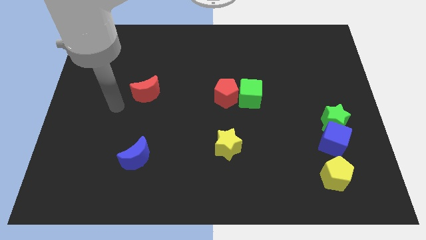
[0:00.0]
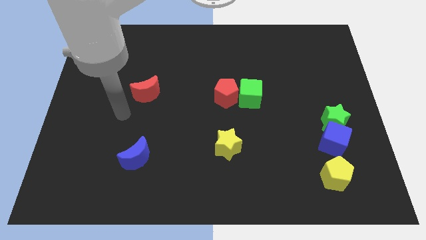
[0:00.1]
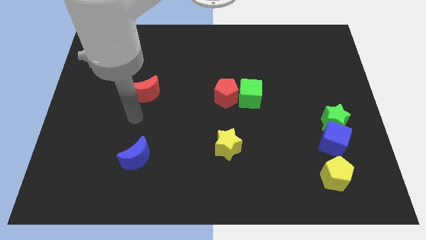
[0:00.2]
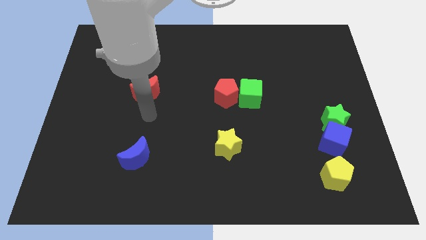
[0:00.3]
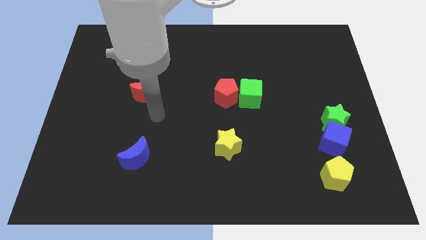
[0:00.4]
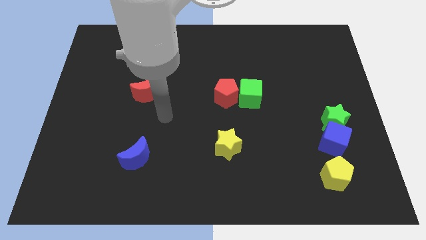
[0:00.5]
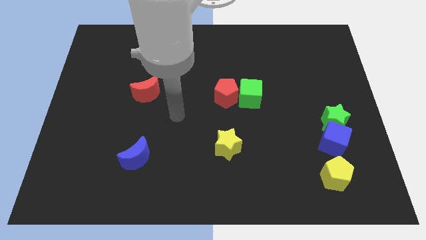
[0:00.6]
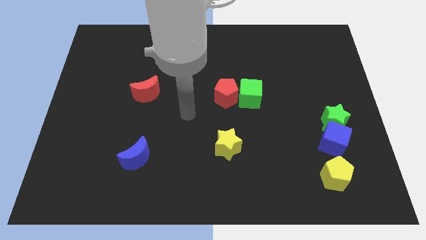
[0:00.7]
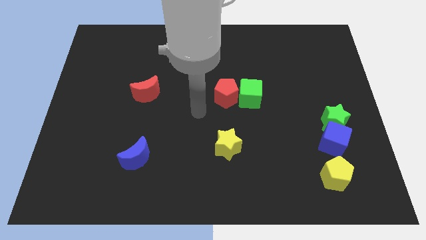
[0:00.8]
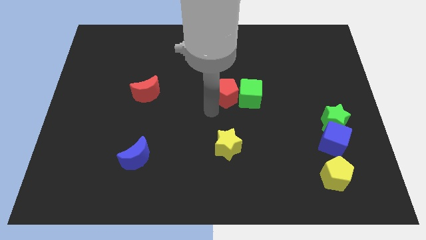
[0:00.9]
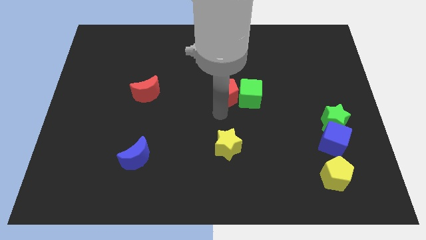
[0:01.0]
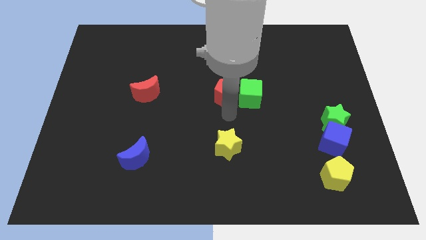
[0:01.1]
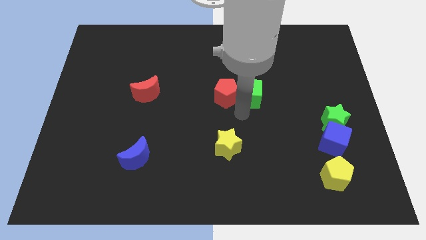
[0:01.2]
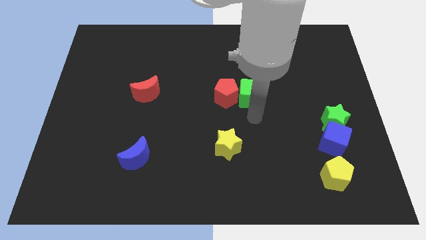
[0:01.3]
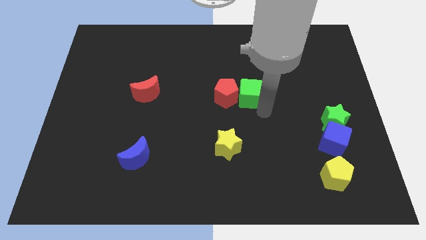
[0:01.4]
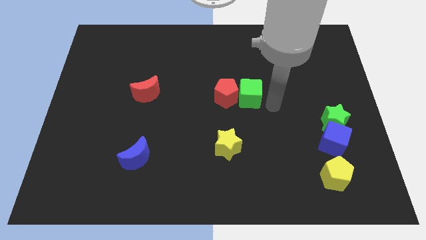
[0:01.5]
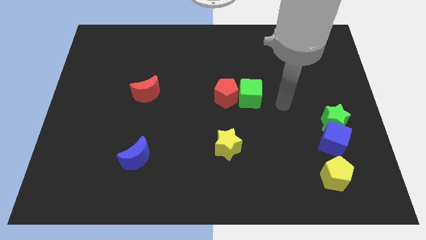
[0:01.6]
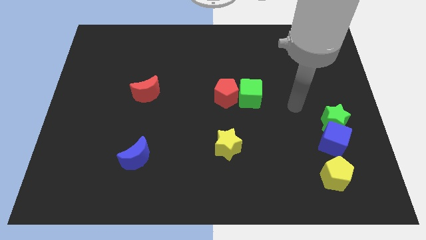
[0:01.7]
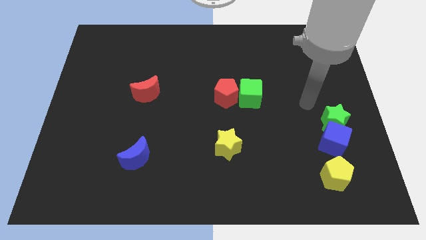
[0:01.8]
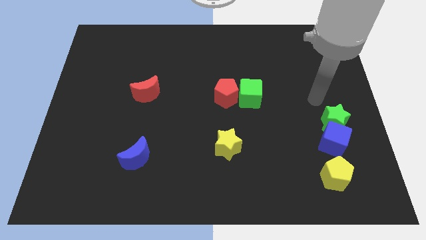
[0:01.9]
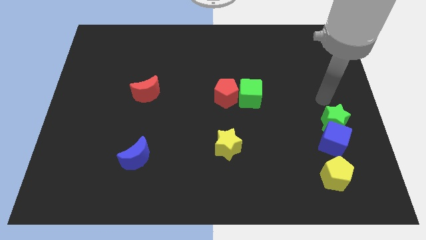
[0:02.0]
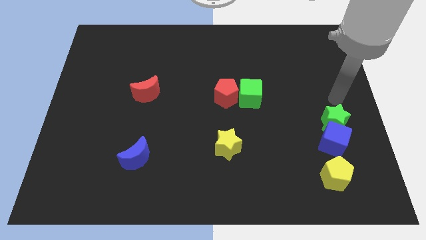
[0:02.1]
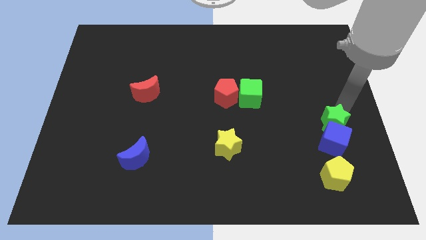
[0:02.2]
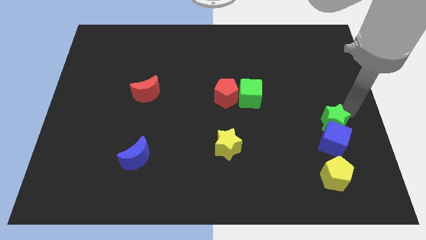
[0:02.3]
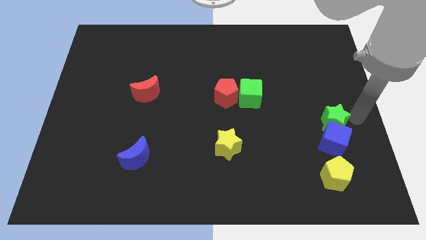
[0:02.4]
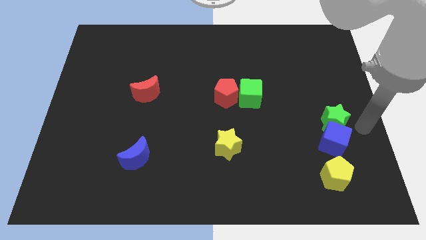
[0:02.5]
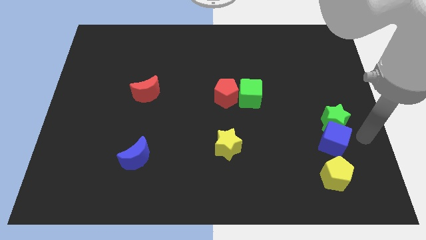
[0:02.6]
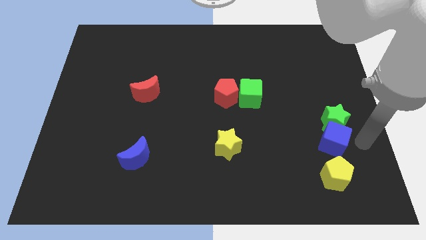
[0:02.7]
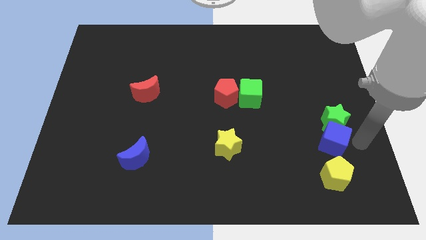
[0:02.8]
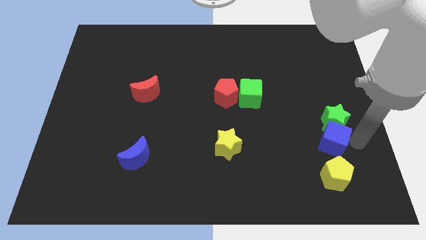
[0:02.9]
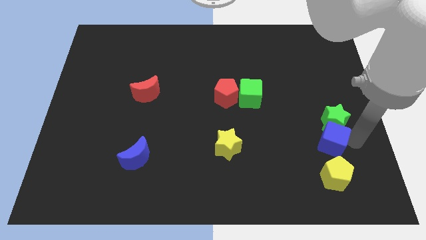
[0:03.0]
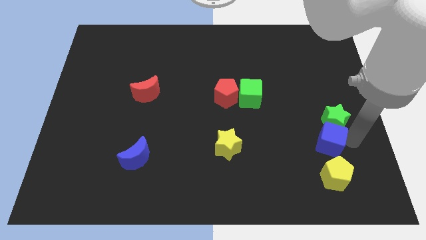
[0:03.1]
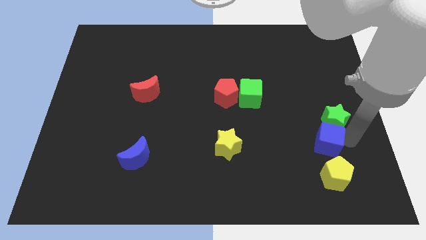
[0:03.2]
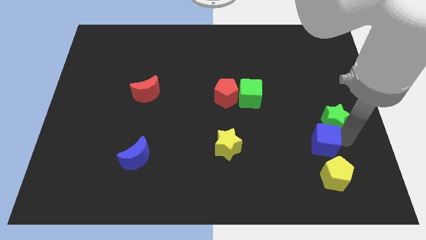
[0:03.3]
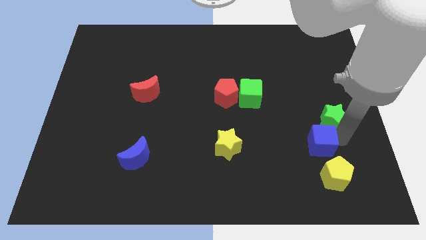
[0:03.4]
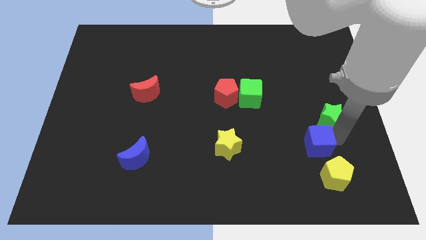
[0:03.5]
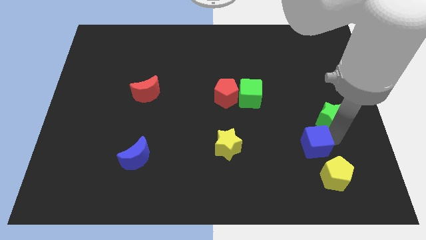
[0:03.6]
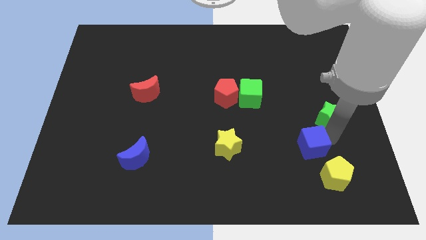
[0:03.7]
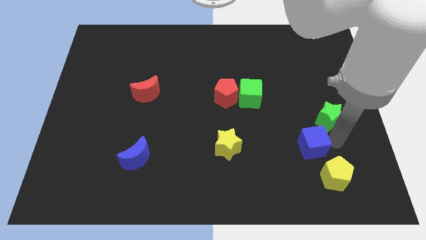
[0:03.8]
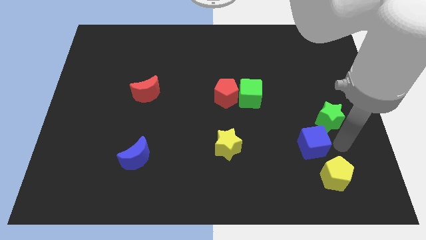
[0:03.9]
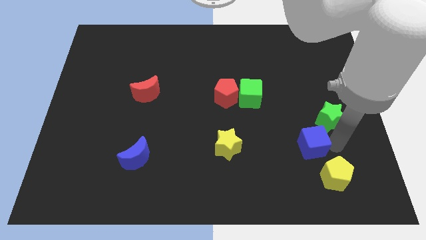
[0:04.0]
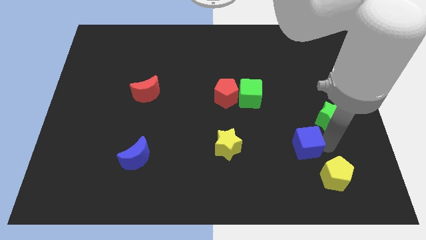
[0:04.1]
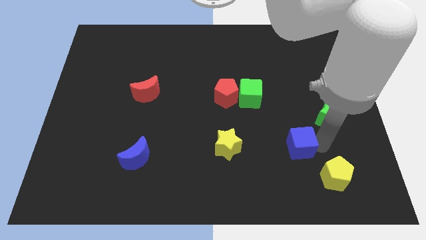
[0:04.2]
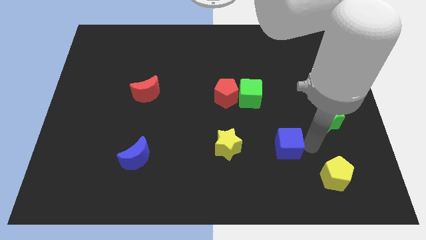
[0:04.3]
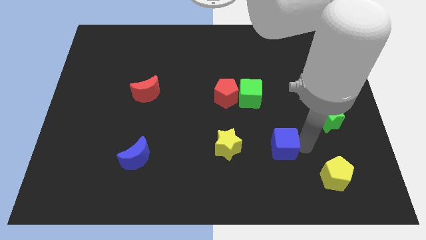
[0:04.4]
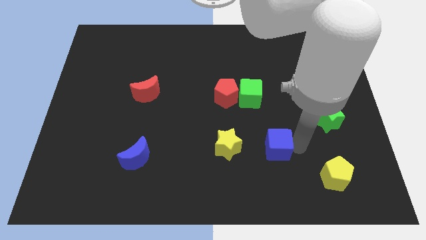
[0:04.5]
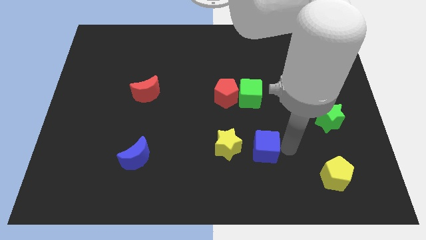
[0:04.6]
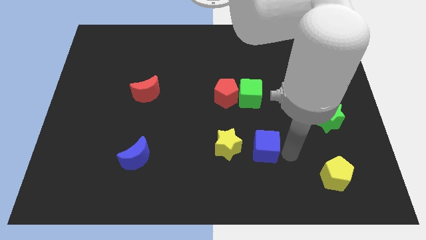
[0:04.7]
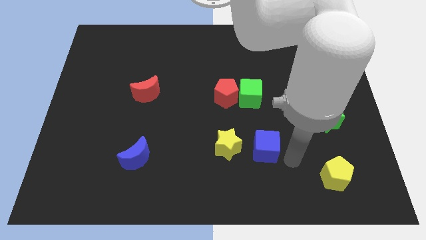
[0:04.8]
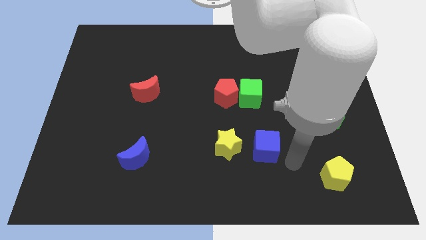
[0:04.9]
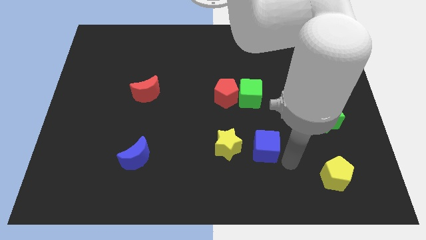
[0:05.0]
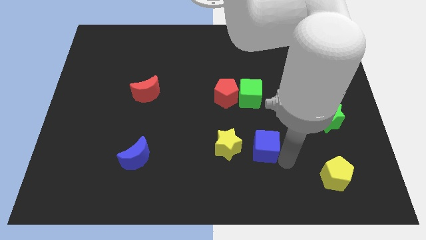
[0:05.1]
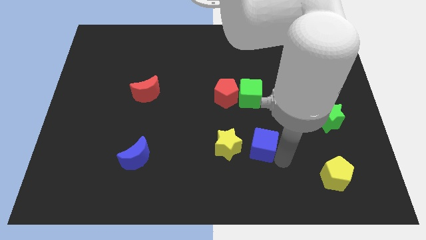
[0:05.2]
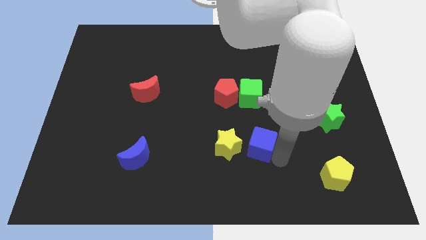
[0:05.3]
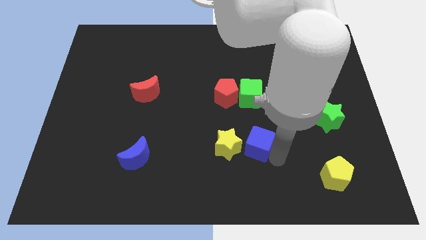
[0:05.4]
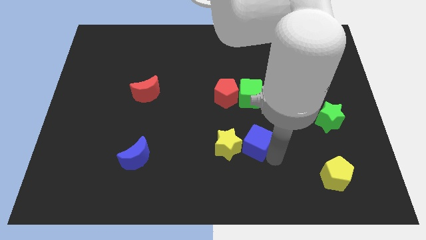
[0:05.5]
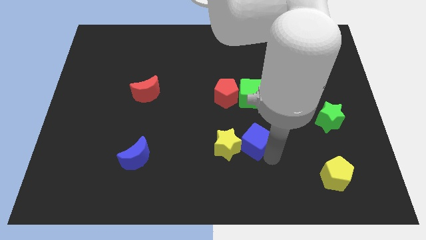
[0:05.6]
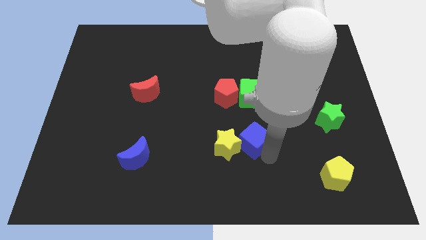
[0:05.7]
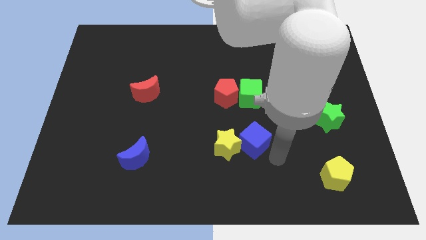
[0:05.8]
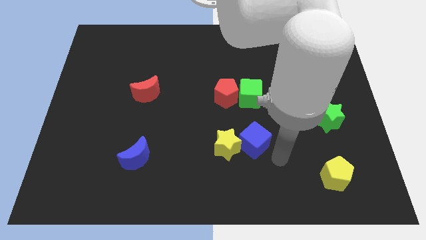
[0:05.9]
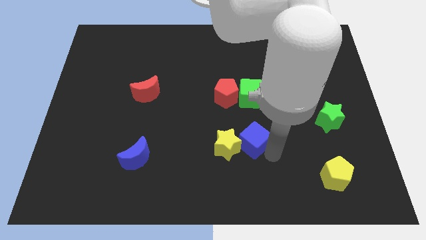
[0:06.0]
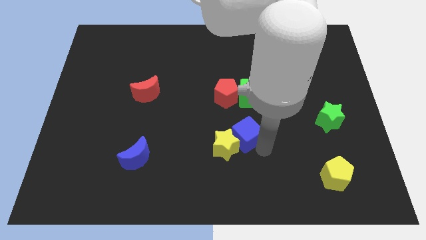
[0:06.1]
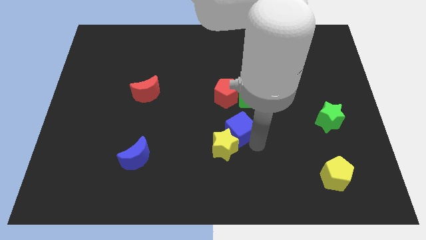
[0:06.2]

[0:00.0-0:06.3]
push the blue cube left

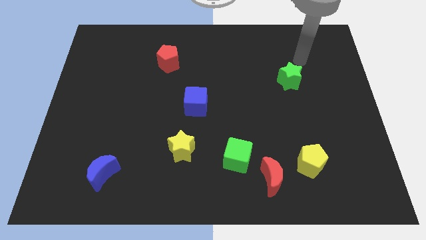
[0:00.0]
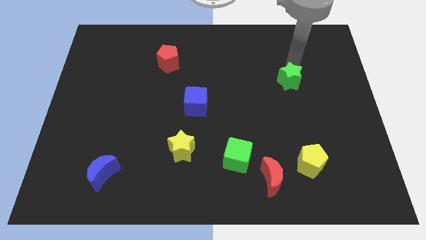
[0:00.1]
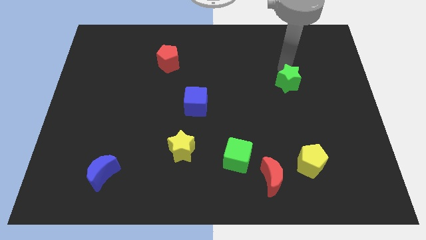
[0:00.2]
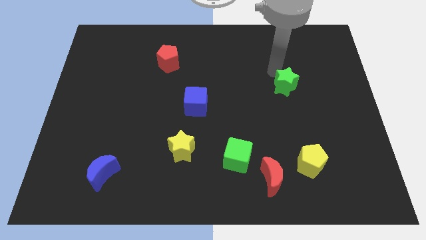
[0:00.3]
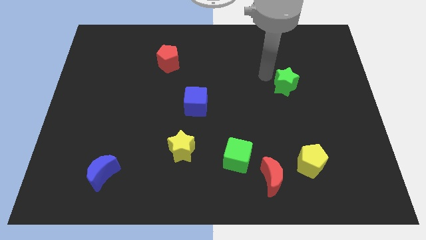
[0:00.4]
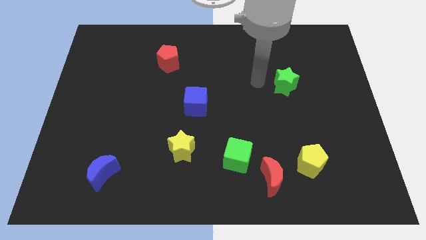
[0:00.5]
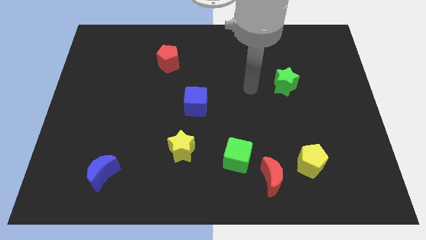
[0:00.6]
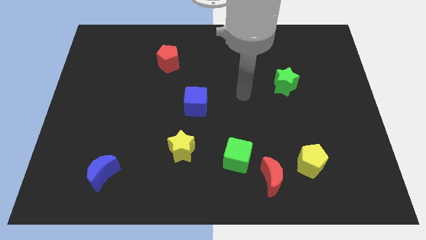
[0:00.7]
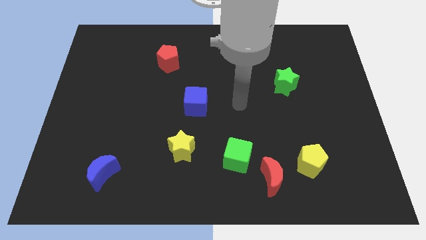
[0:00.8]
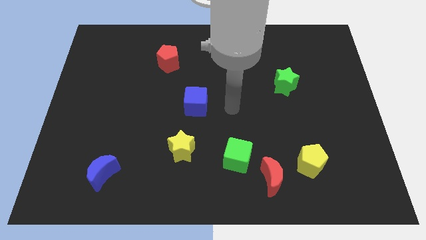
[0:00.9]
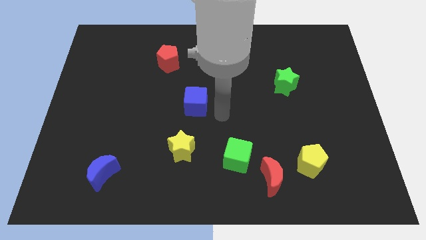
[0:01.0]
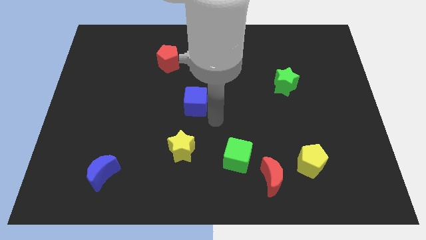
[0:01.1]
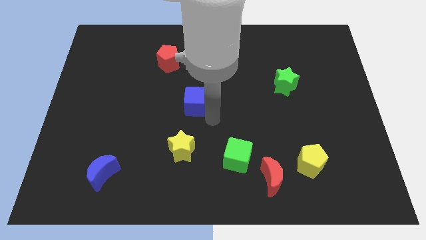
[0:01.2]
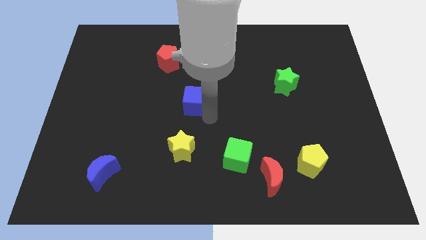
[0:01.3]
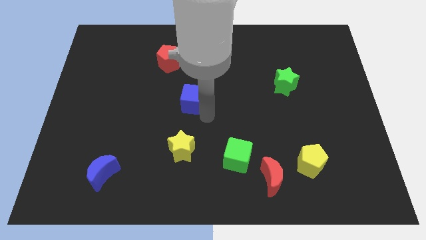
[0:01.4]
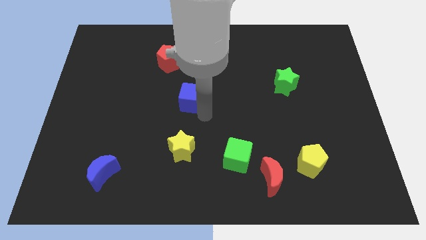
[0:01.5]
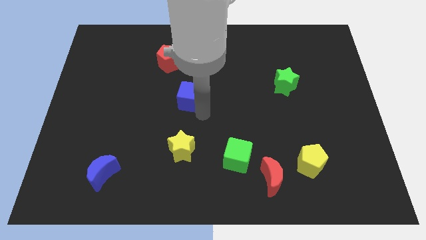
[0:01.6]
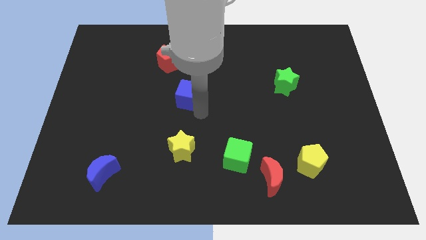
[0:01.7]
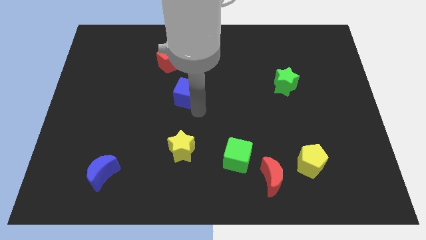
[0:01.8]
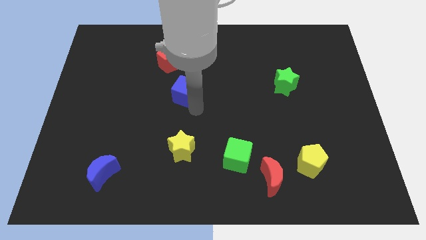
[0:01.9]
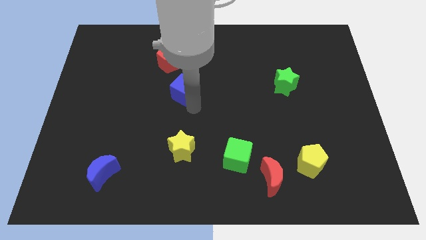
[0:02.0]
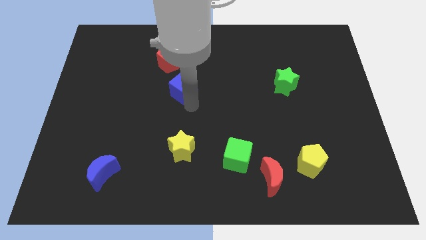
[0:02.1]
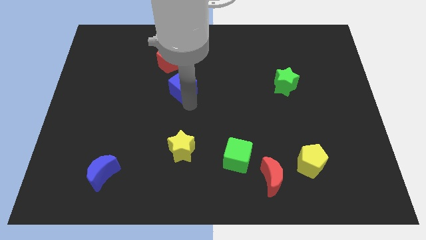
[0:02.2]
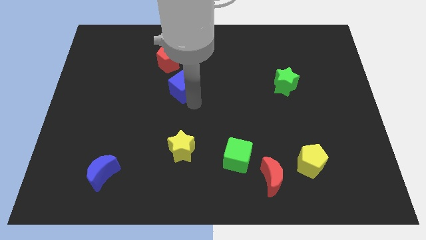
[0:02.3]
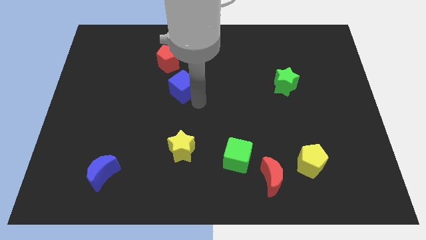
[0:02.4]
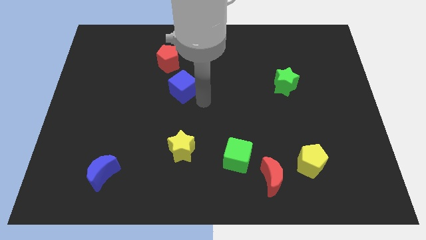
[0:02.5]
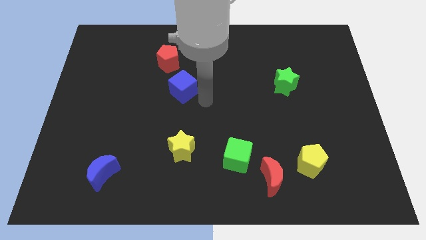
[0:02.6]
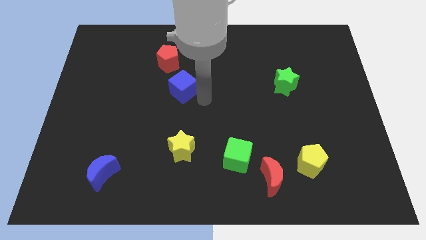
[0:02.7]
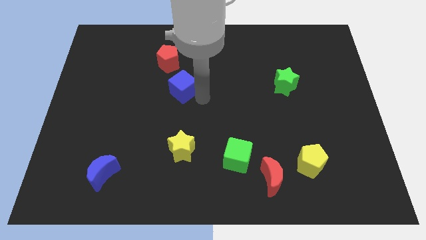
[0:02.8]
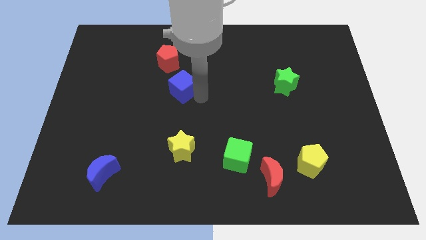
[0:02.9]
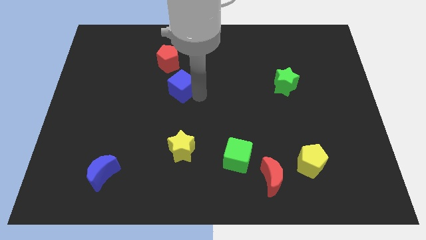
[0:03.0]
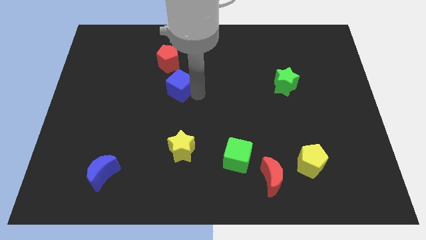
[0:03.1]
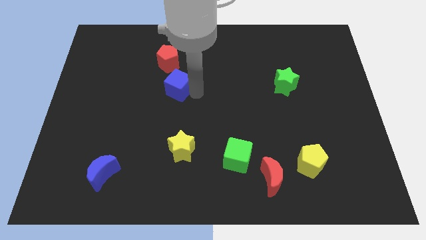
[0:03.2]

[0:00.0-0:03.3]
slide the blue cube upwards and left diagonally a little bit
